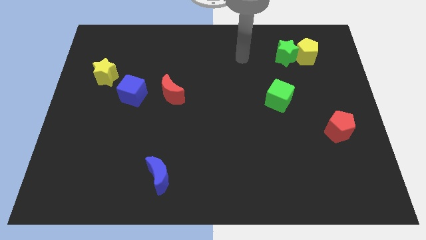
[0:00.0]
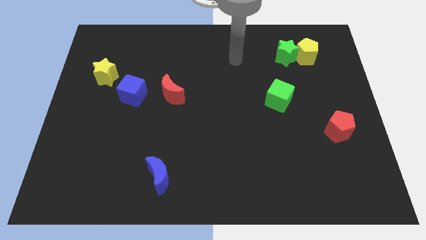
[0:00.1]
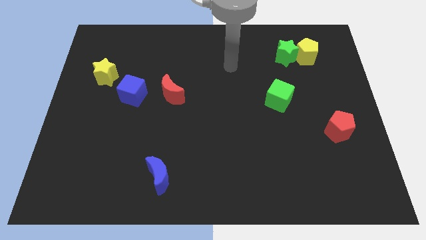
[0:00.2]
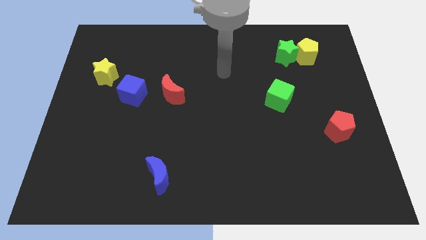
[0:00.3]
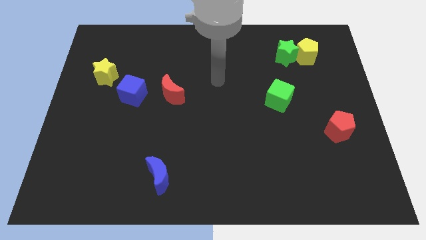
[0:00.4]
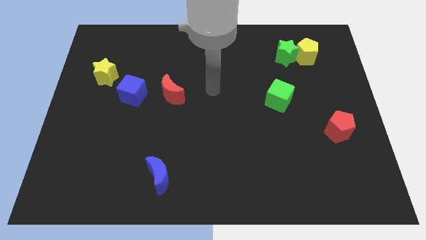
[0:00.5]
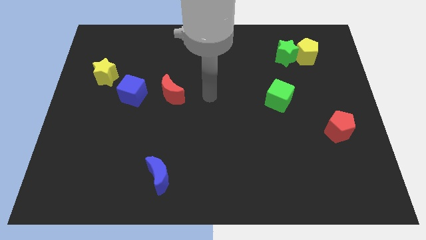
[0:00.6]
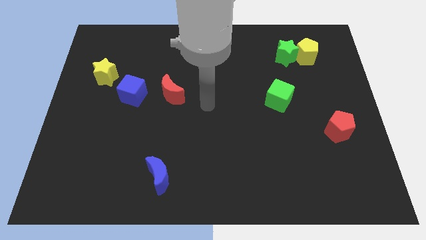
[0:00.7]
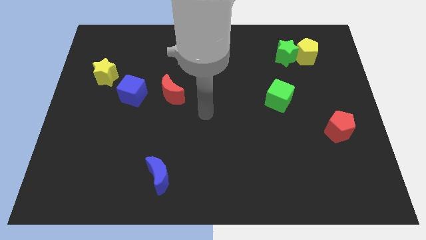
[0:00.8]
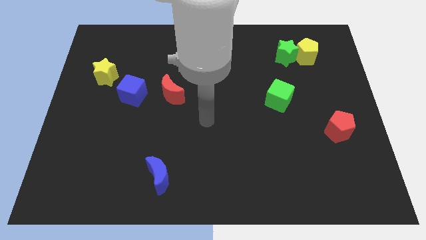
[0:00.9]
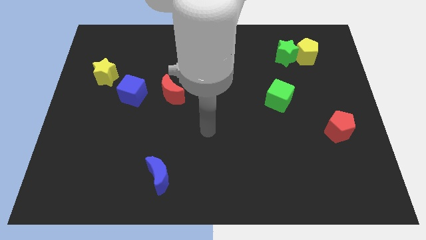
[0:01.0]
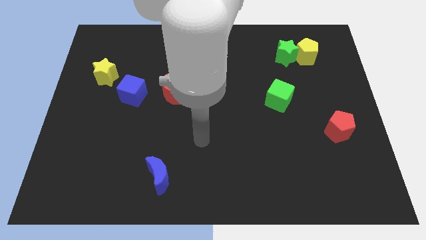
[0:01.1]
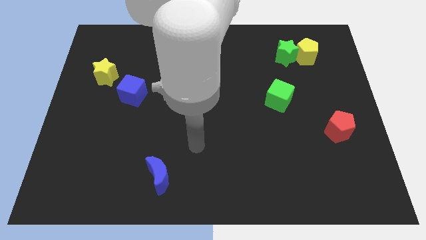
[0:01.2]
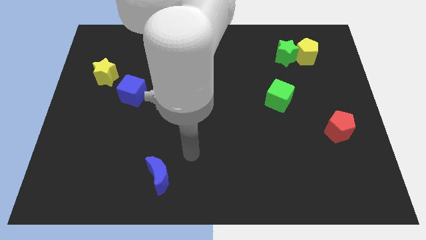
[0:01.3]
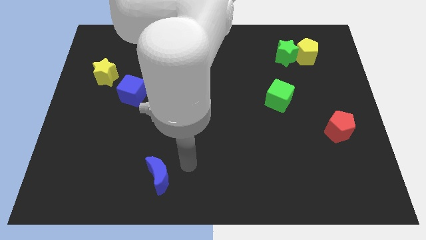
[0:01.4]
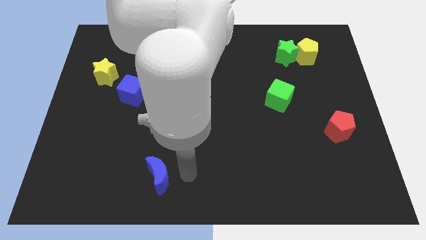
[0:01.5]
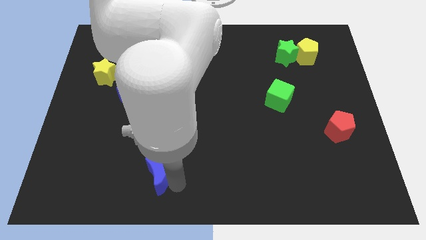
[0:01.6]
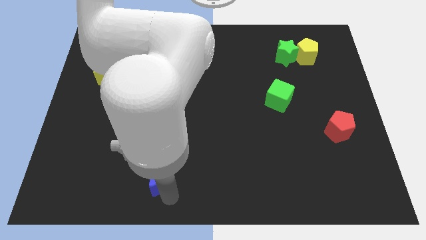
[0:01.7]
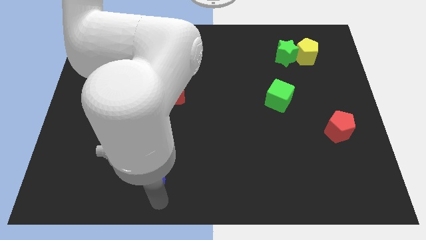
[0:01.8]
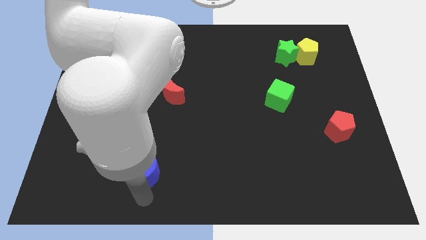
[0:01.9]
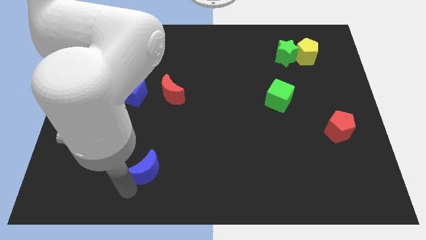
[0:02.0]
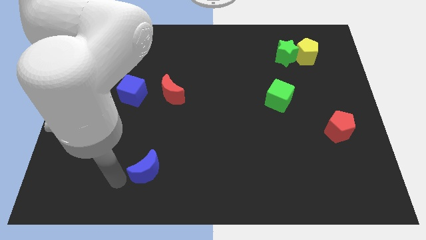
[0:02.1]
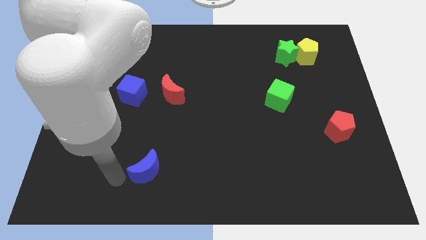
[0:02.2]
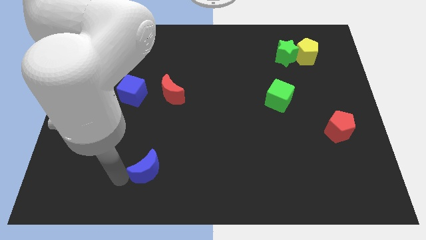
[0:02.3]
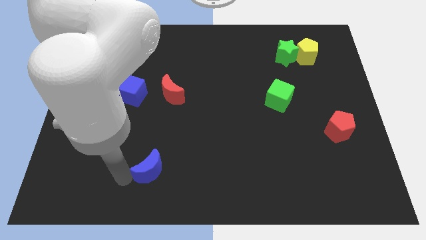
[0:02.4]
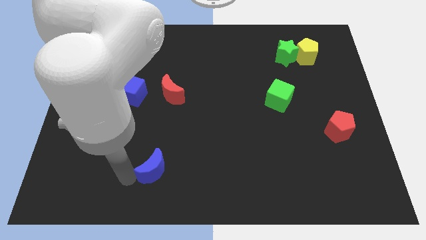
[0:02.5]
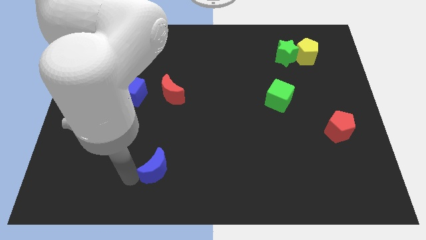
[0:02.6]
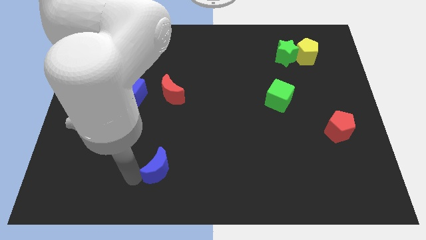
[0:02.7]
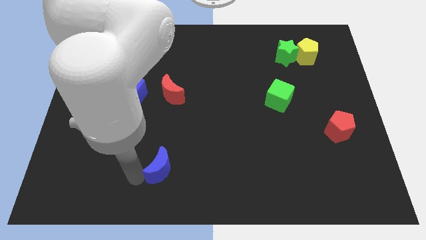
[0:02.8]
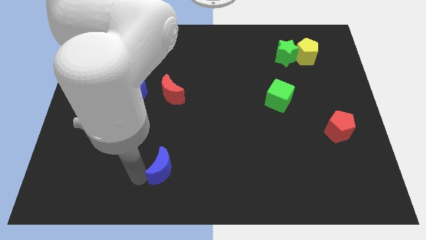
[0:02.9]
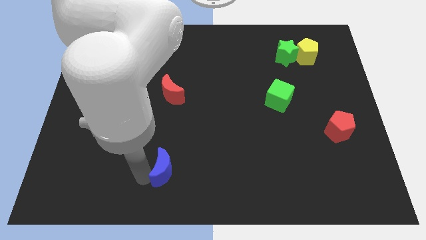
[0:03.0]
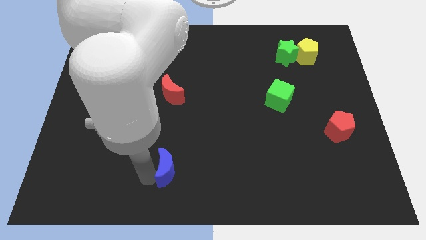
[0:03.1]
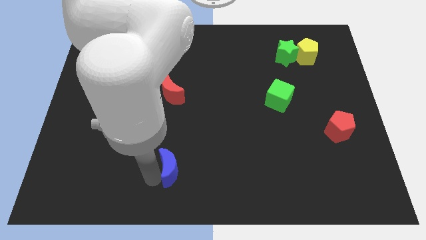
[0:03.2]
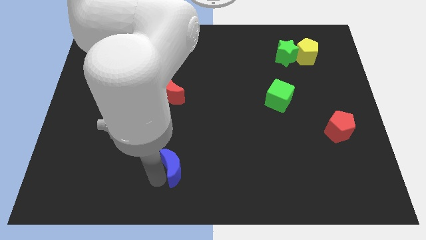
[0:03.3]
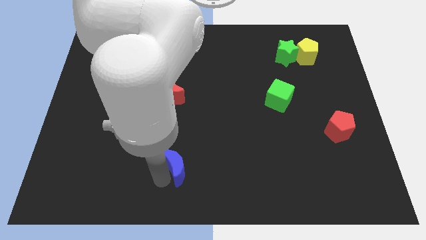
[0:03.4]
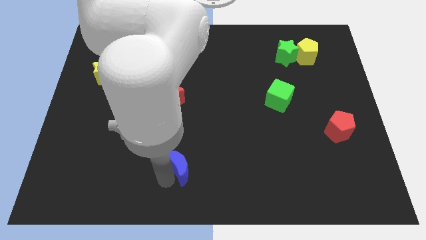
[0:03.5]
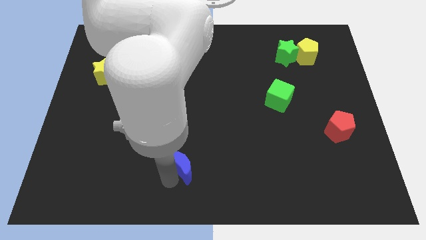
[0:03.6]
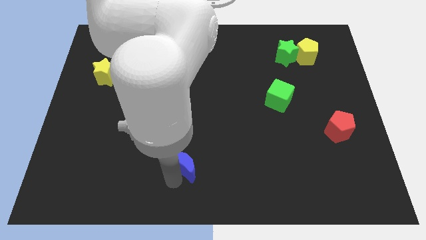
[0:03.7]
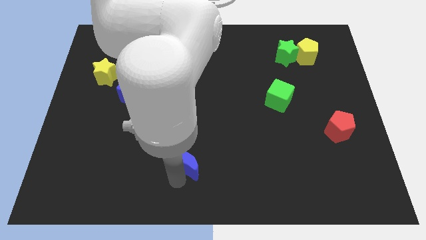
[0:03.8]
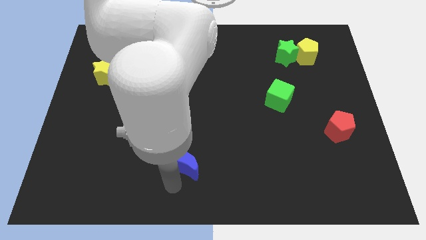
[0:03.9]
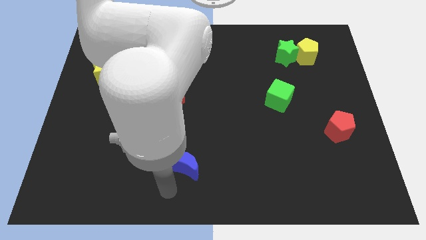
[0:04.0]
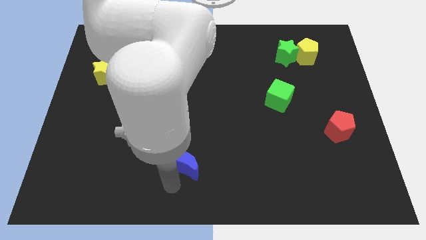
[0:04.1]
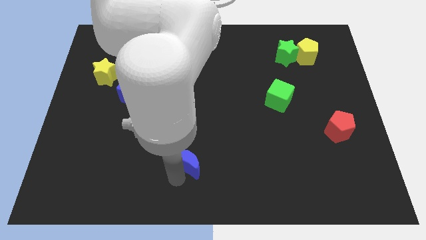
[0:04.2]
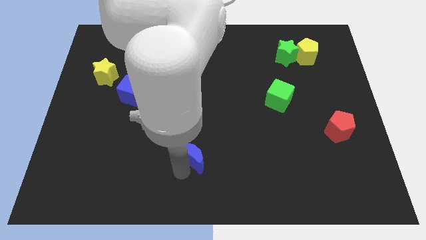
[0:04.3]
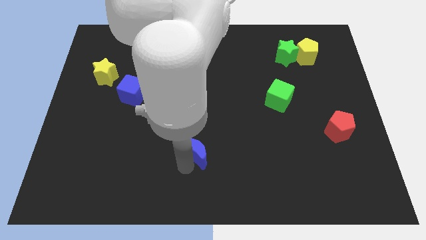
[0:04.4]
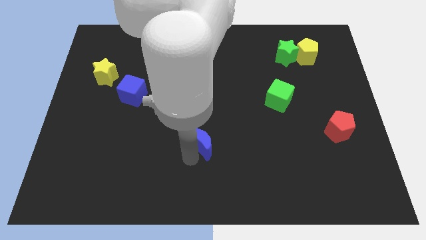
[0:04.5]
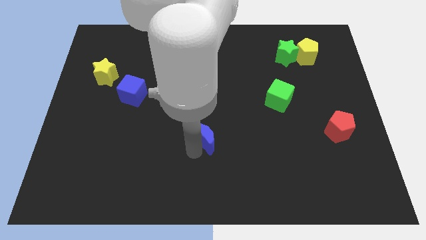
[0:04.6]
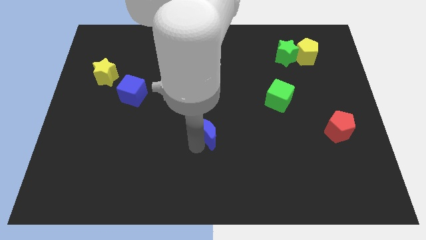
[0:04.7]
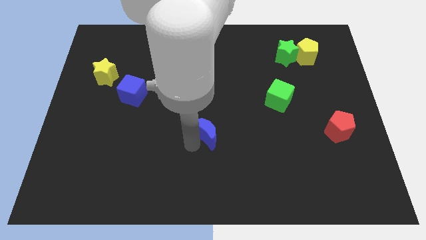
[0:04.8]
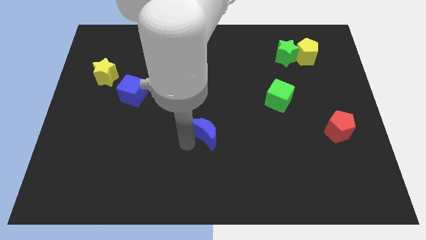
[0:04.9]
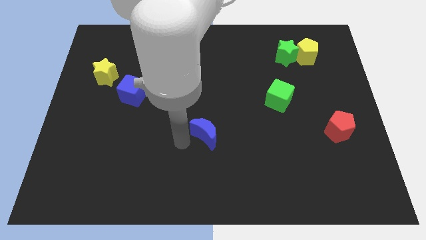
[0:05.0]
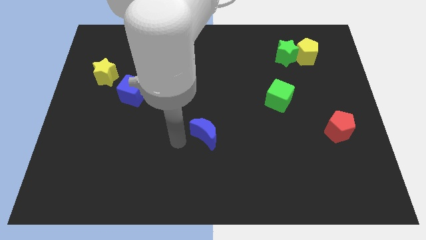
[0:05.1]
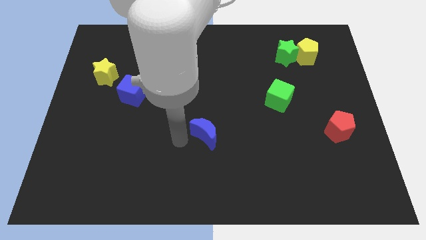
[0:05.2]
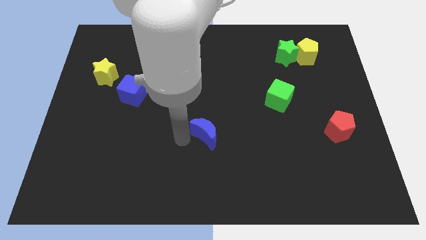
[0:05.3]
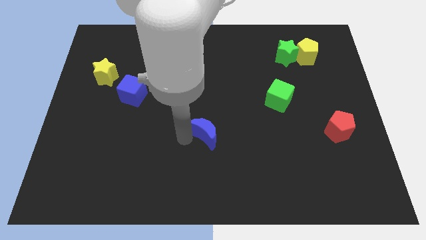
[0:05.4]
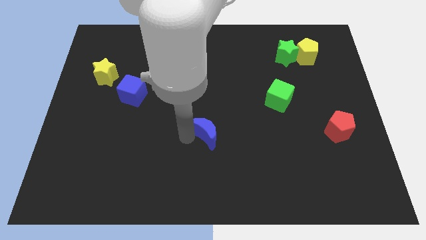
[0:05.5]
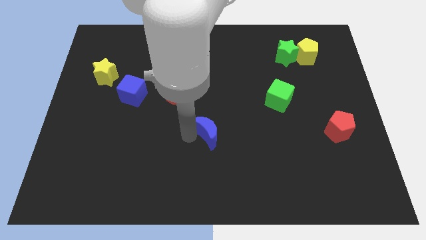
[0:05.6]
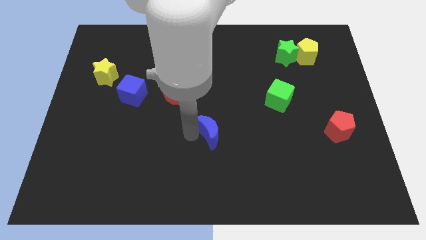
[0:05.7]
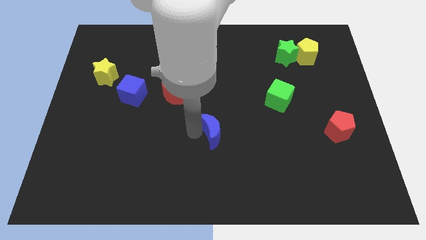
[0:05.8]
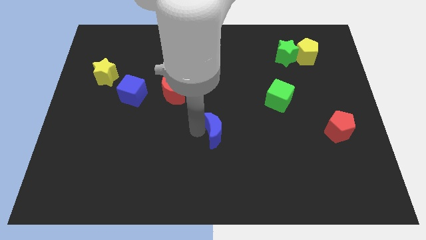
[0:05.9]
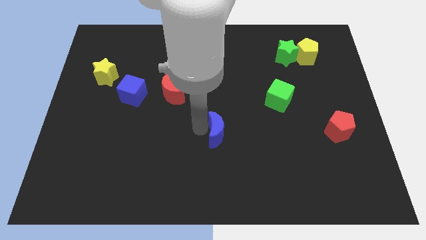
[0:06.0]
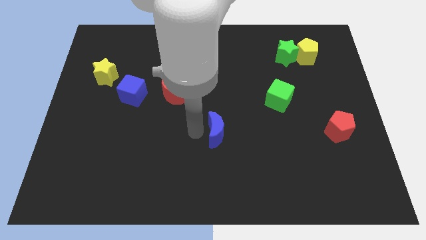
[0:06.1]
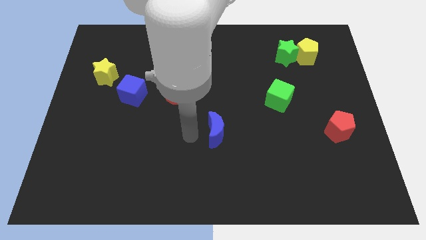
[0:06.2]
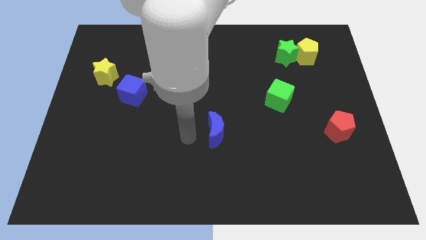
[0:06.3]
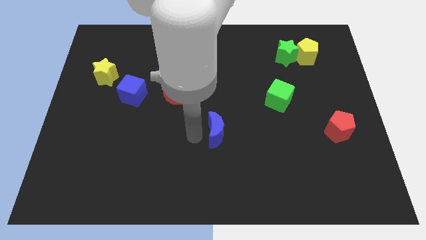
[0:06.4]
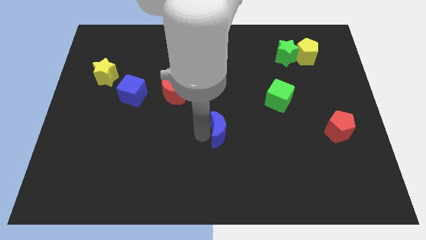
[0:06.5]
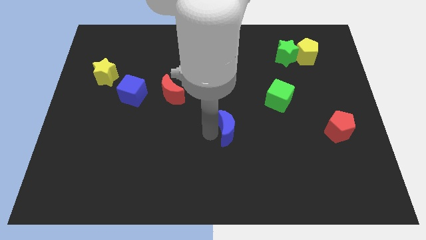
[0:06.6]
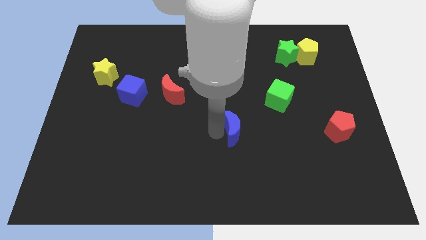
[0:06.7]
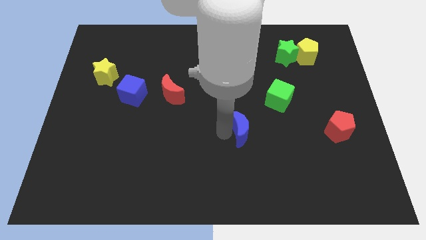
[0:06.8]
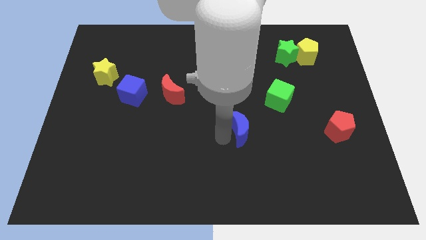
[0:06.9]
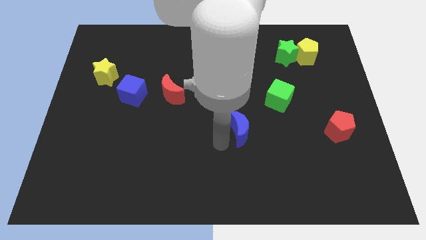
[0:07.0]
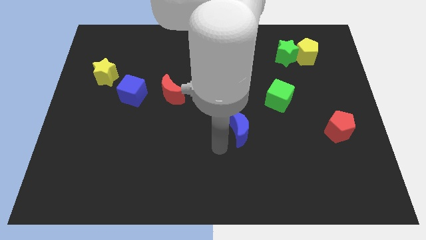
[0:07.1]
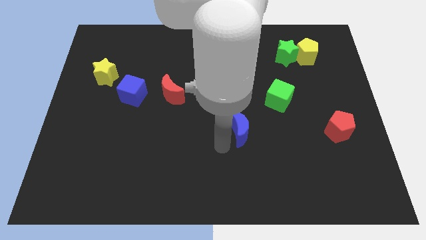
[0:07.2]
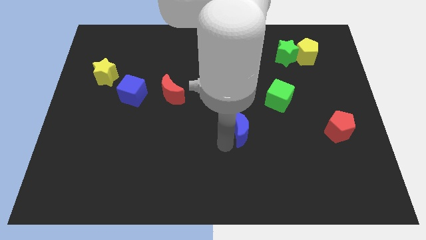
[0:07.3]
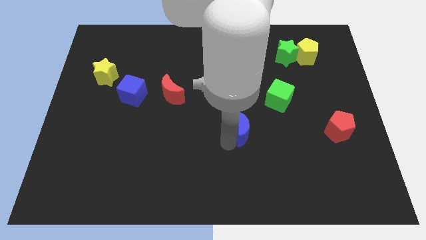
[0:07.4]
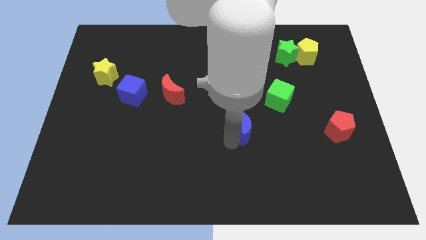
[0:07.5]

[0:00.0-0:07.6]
push the blue moon to the bottom left side of the green cube
